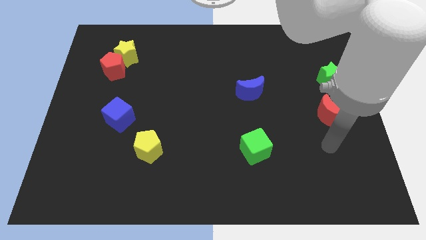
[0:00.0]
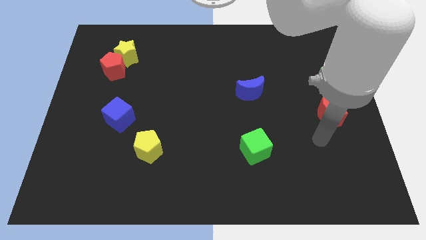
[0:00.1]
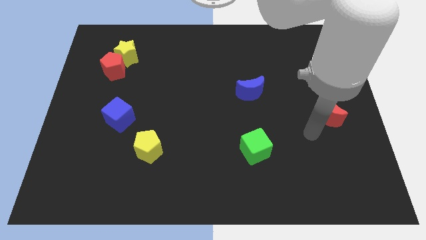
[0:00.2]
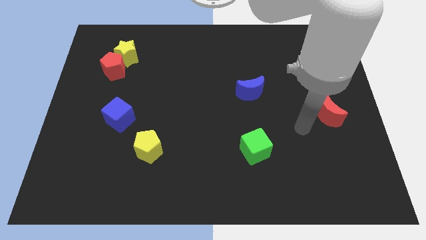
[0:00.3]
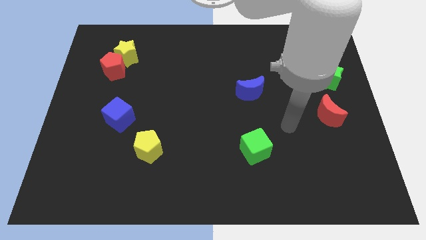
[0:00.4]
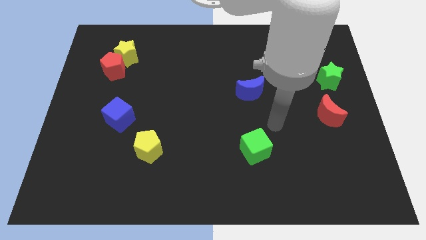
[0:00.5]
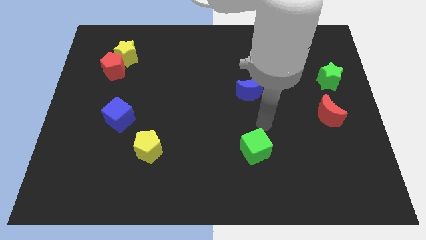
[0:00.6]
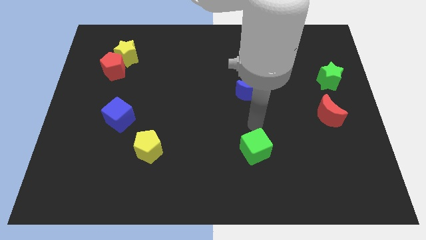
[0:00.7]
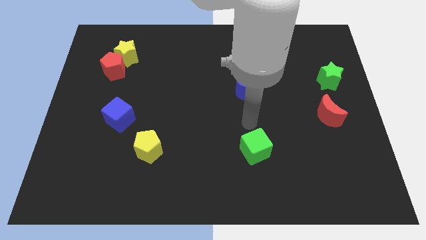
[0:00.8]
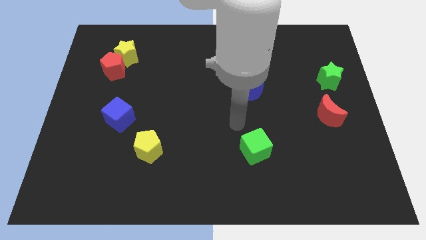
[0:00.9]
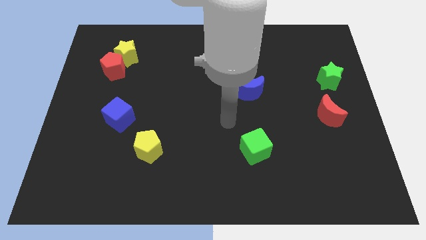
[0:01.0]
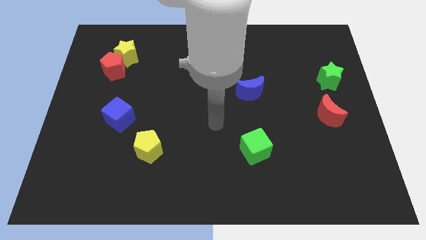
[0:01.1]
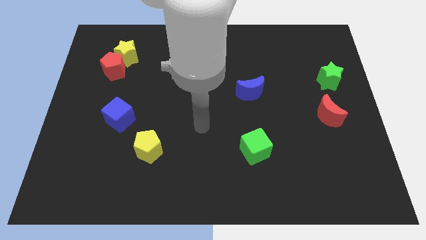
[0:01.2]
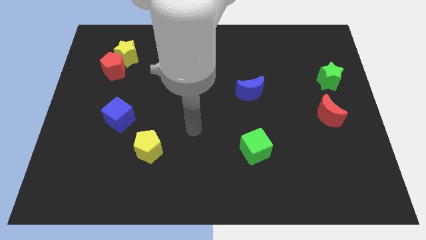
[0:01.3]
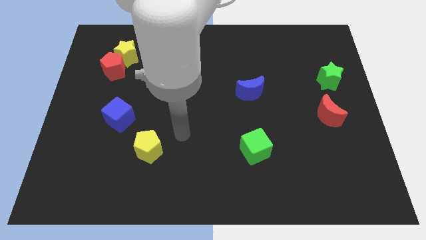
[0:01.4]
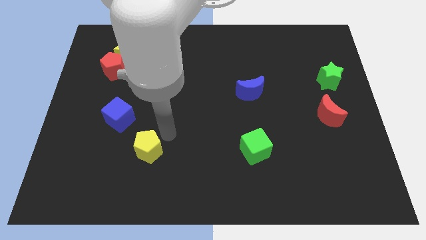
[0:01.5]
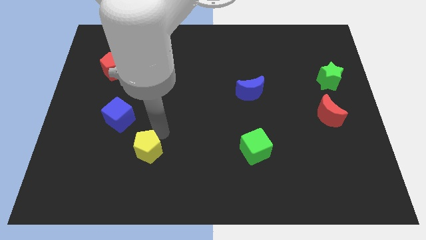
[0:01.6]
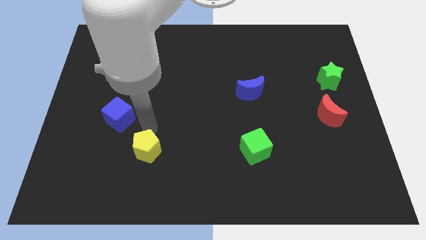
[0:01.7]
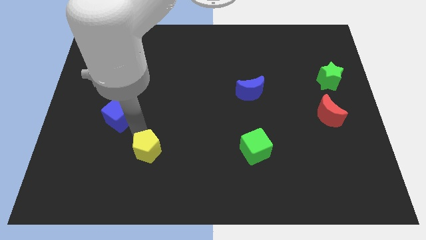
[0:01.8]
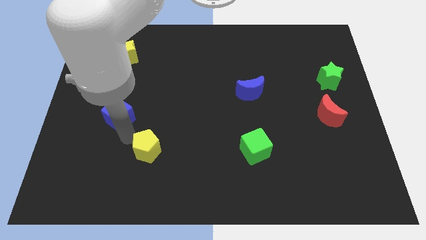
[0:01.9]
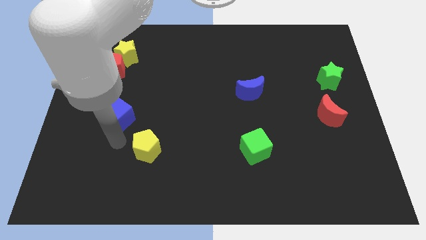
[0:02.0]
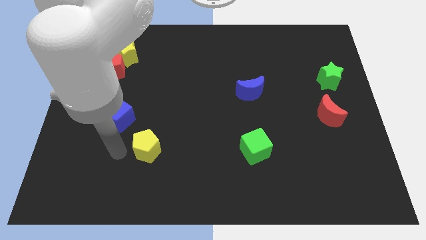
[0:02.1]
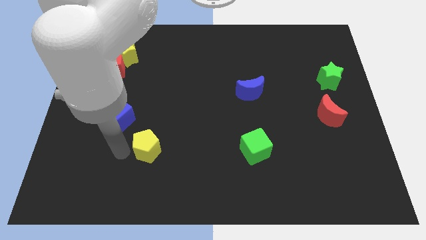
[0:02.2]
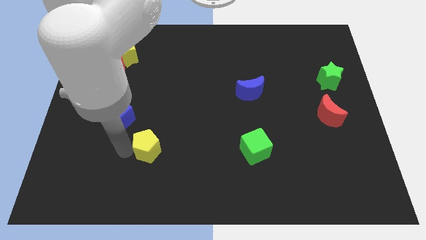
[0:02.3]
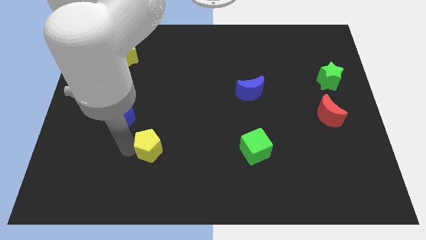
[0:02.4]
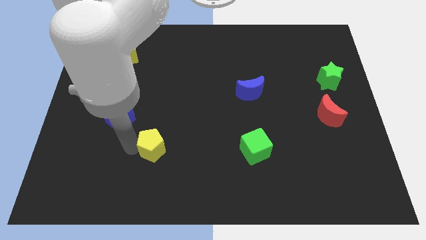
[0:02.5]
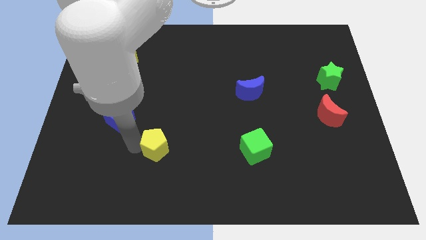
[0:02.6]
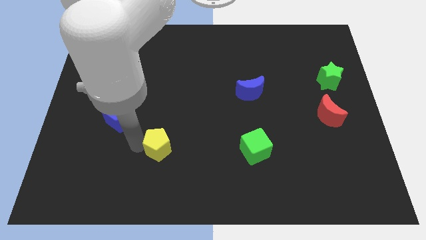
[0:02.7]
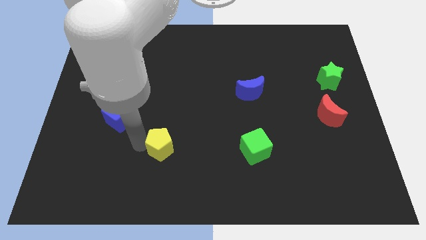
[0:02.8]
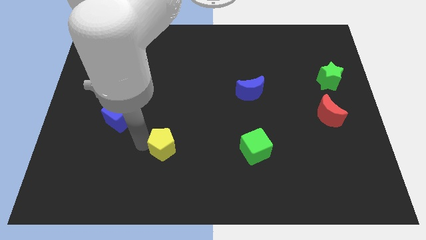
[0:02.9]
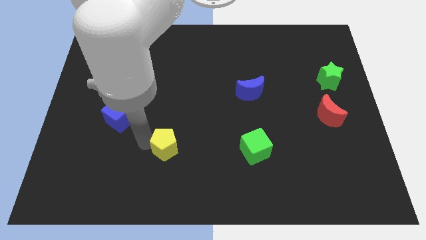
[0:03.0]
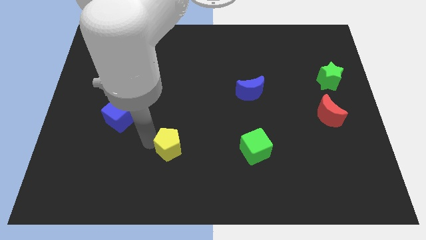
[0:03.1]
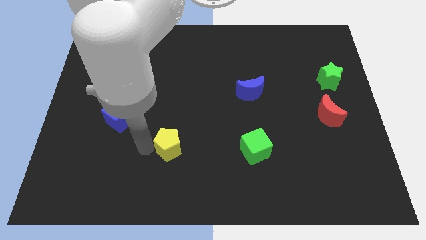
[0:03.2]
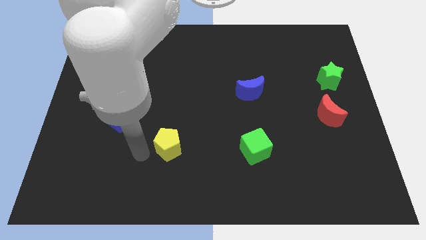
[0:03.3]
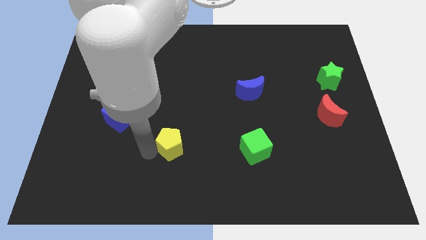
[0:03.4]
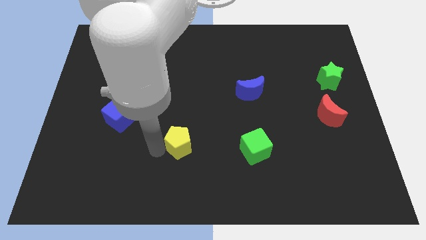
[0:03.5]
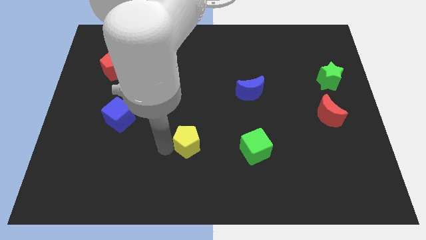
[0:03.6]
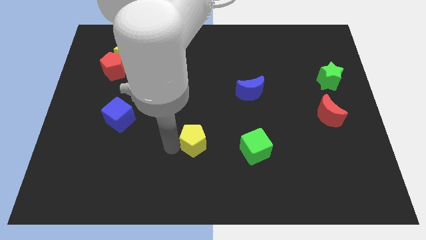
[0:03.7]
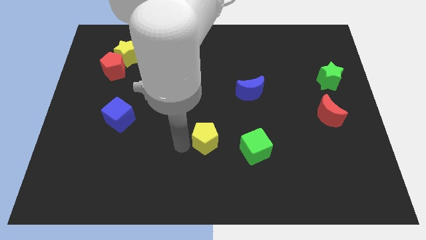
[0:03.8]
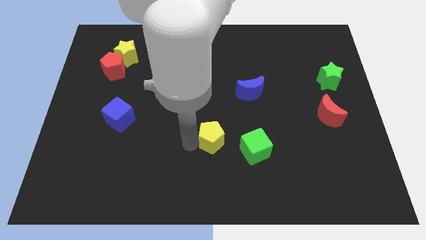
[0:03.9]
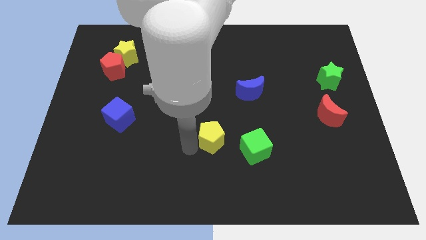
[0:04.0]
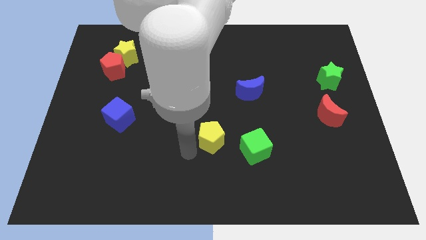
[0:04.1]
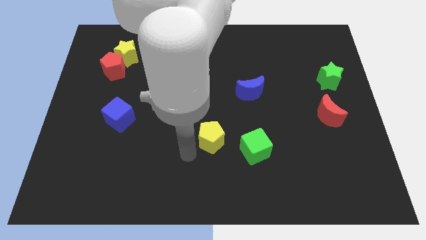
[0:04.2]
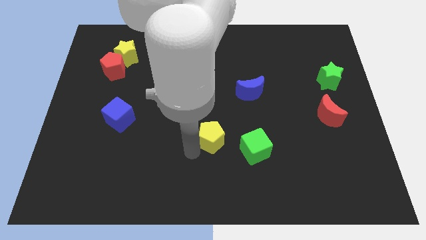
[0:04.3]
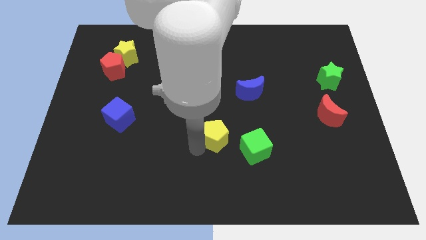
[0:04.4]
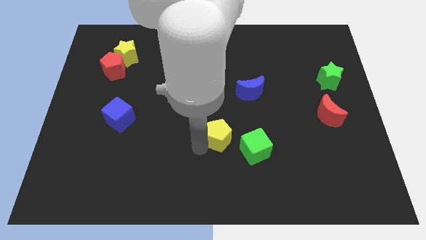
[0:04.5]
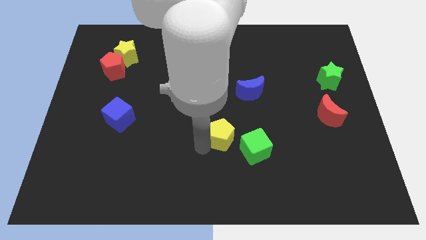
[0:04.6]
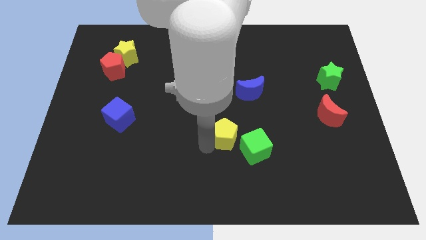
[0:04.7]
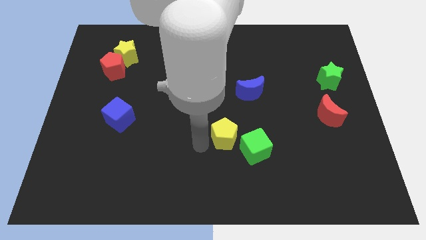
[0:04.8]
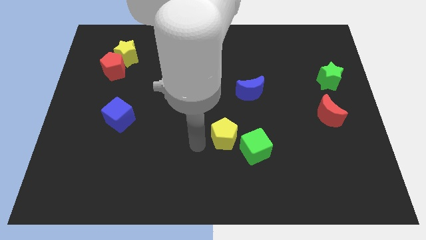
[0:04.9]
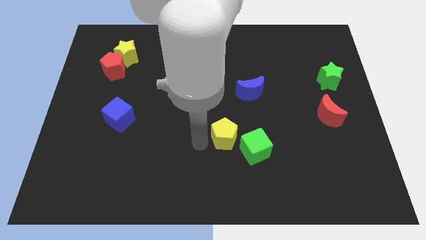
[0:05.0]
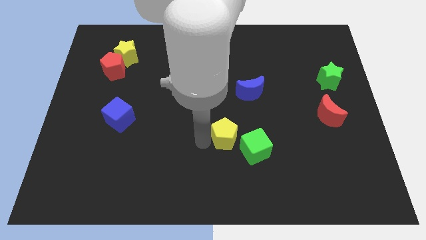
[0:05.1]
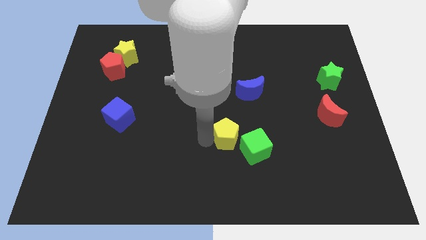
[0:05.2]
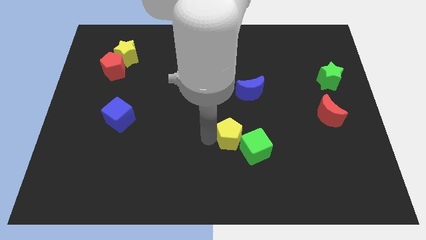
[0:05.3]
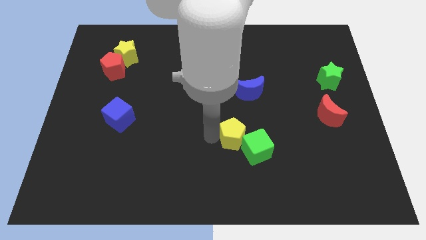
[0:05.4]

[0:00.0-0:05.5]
put the yellow pentagon to the bottom of the blue moon

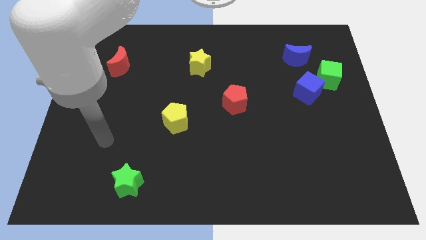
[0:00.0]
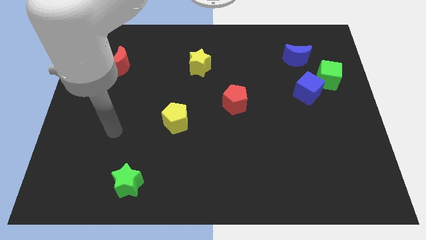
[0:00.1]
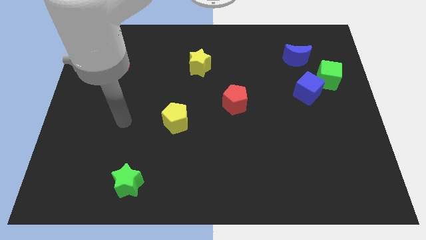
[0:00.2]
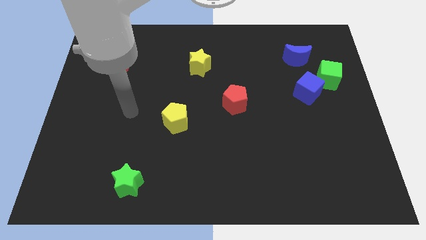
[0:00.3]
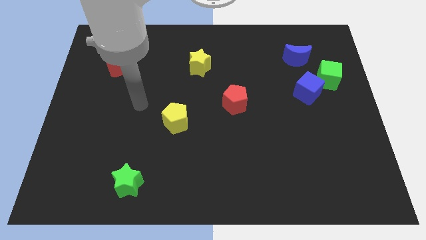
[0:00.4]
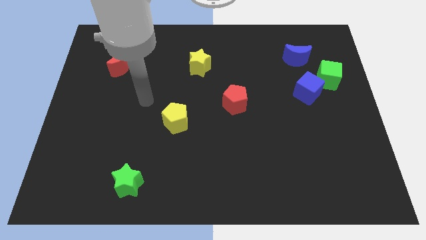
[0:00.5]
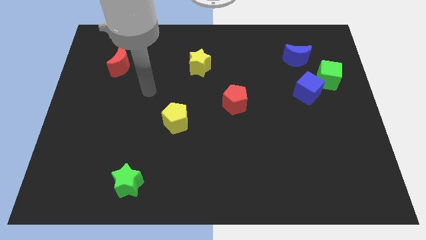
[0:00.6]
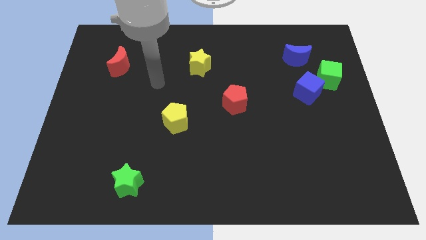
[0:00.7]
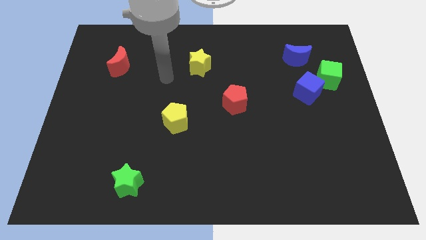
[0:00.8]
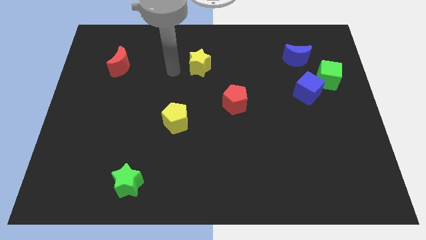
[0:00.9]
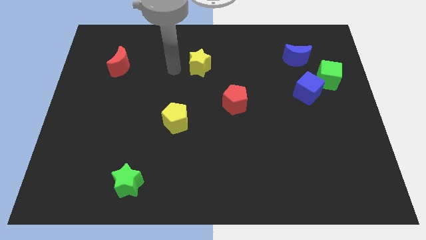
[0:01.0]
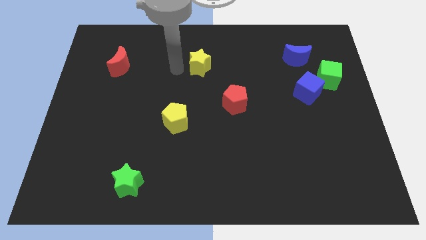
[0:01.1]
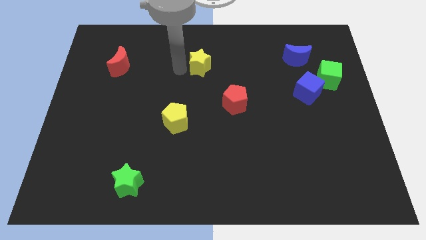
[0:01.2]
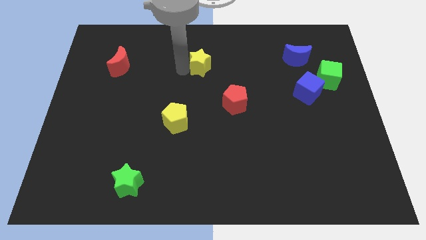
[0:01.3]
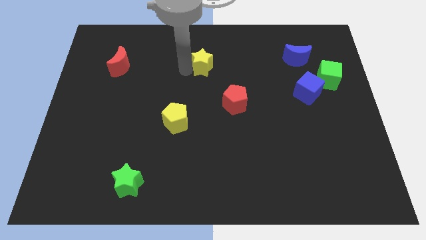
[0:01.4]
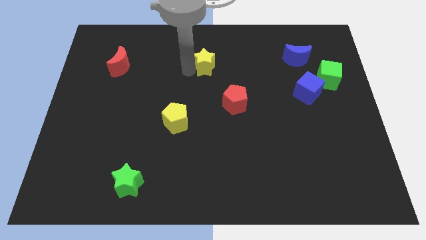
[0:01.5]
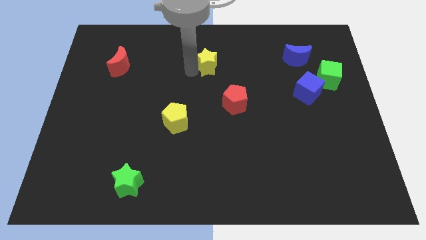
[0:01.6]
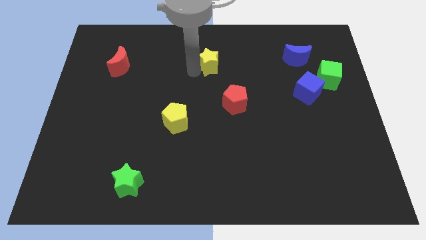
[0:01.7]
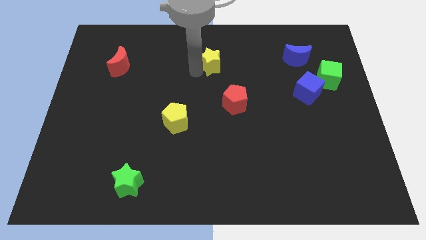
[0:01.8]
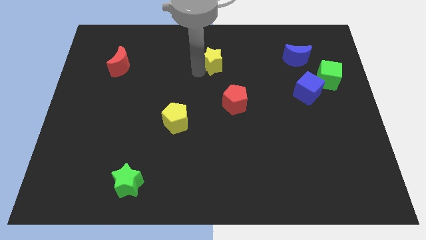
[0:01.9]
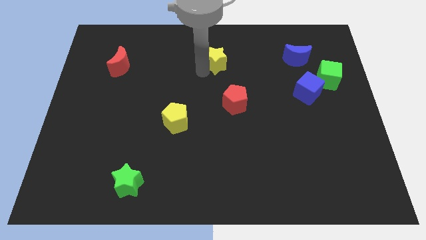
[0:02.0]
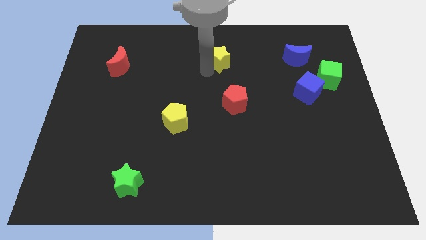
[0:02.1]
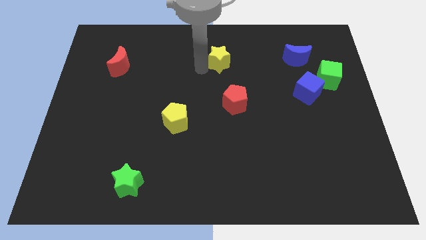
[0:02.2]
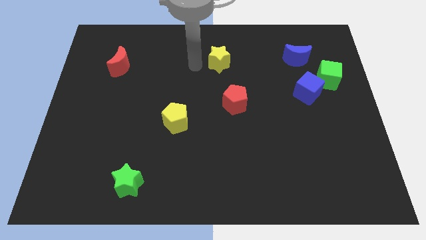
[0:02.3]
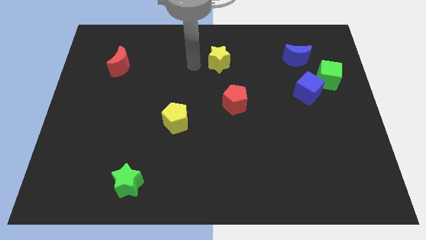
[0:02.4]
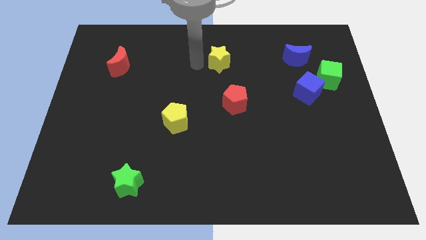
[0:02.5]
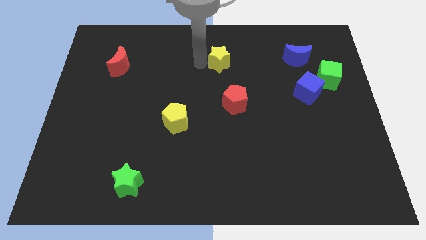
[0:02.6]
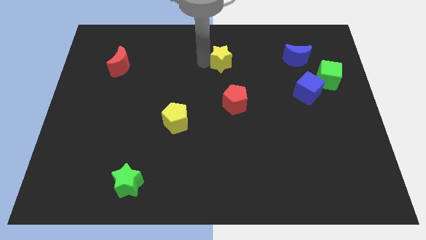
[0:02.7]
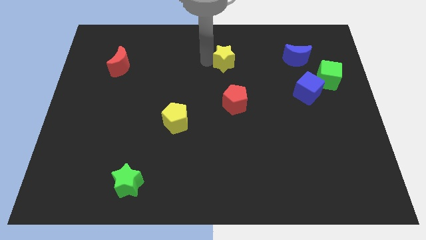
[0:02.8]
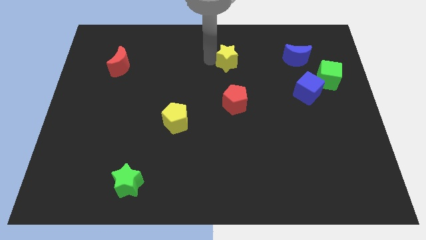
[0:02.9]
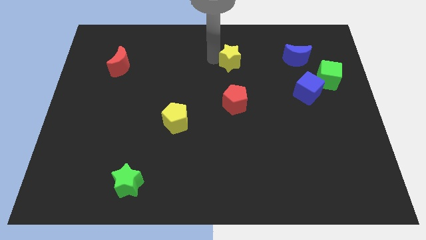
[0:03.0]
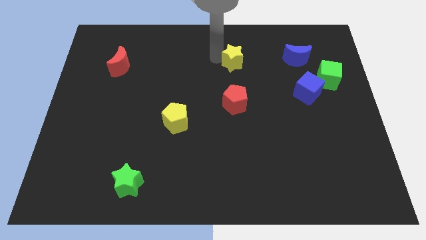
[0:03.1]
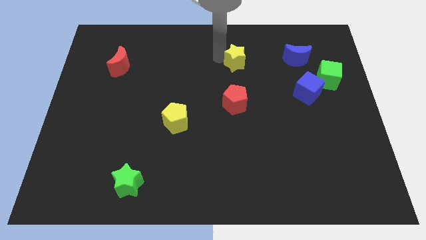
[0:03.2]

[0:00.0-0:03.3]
put the yellow star to the left of the blue moon
